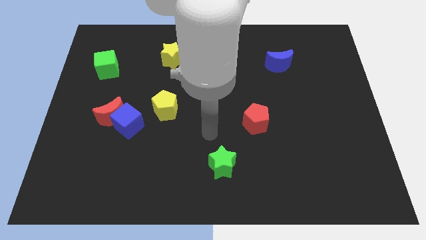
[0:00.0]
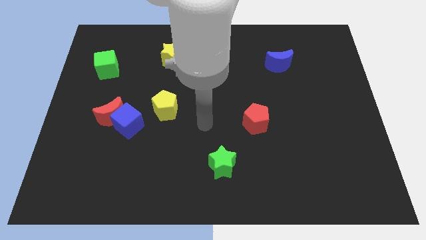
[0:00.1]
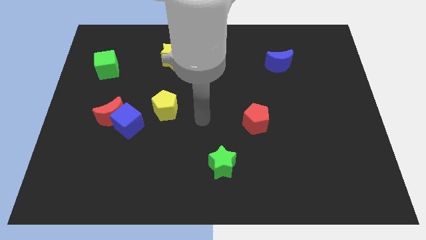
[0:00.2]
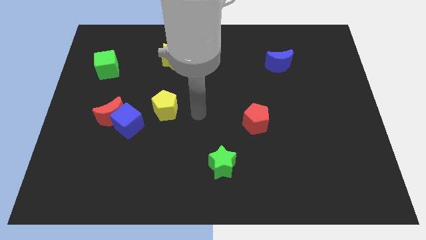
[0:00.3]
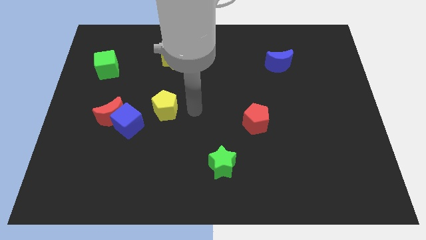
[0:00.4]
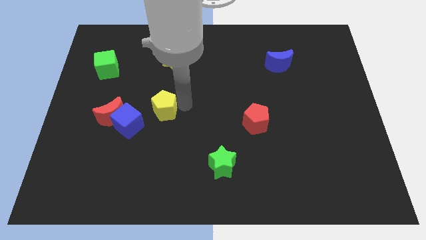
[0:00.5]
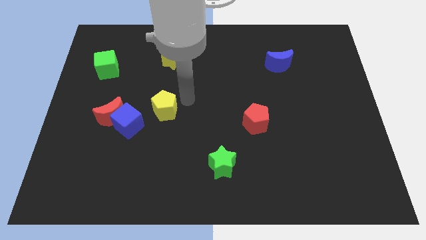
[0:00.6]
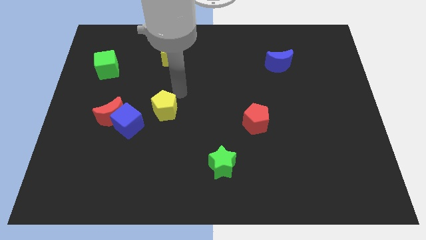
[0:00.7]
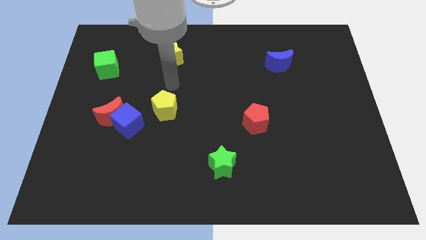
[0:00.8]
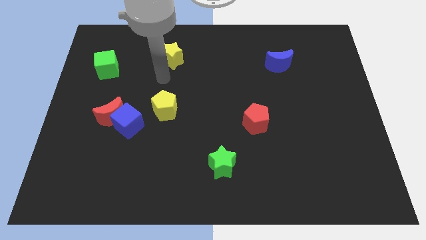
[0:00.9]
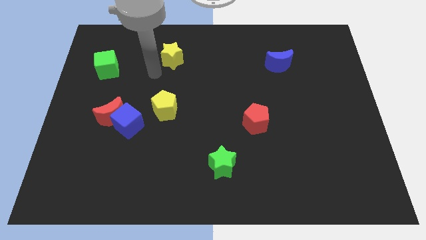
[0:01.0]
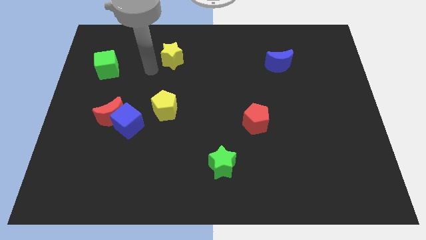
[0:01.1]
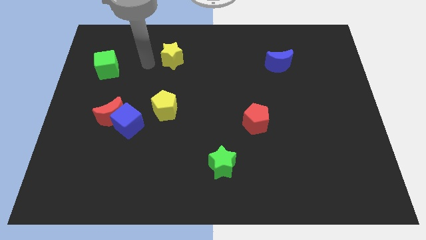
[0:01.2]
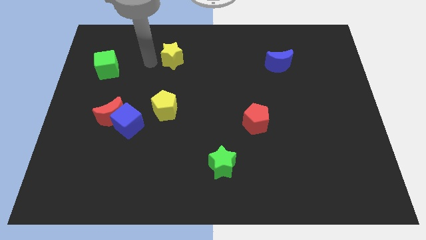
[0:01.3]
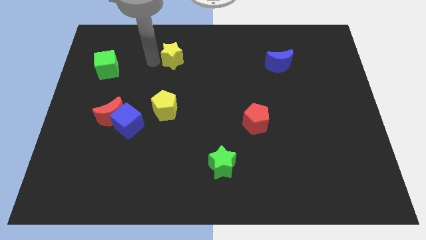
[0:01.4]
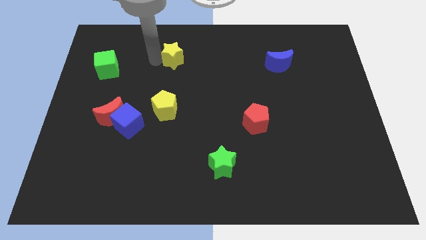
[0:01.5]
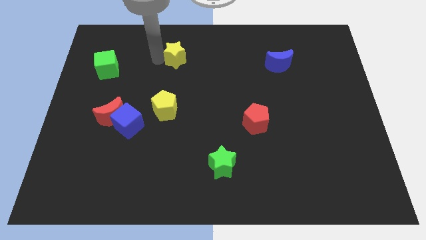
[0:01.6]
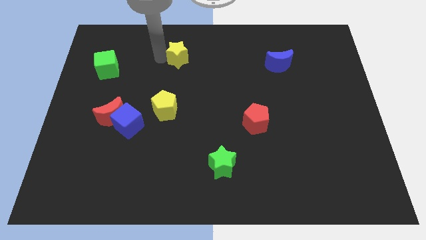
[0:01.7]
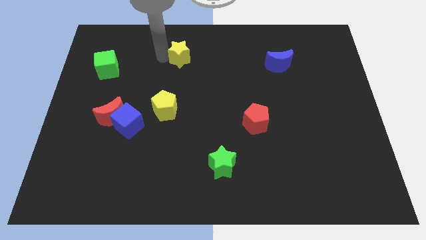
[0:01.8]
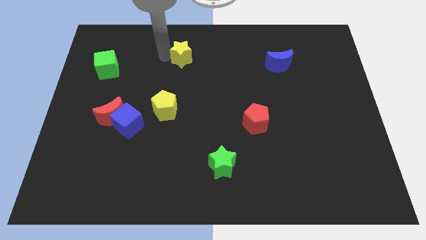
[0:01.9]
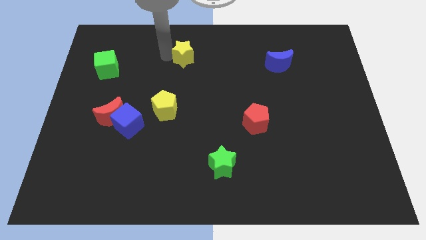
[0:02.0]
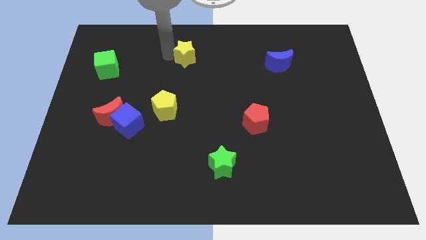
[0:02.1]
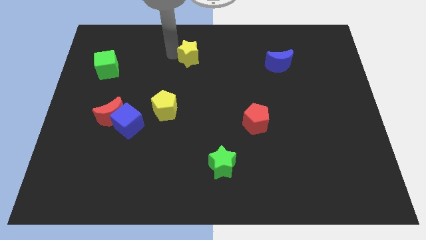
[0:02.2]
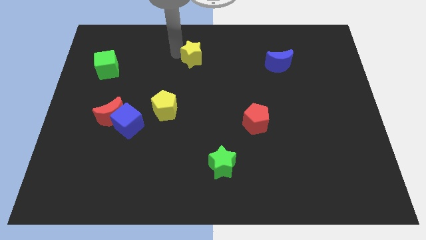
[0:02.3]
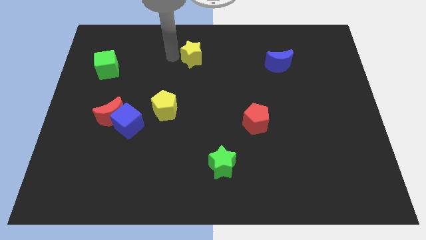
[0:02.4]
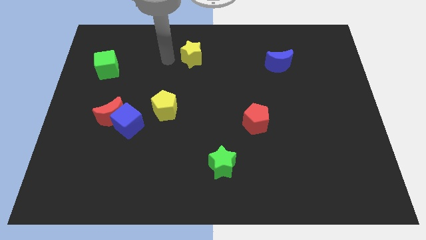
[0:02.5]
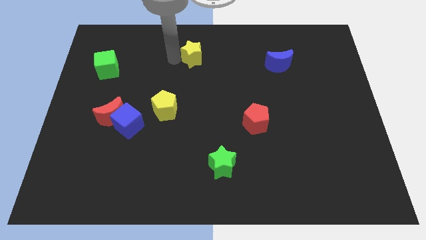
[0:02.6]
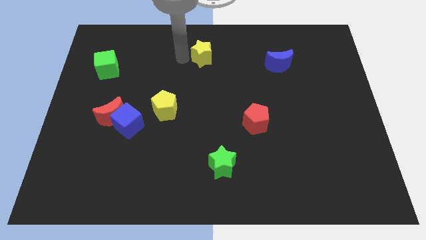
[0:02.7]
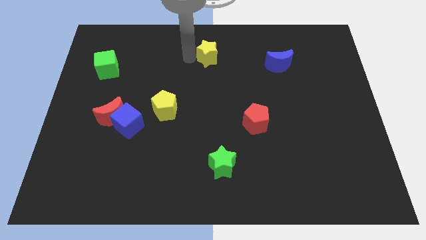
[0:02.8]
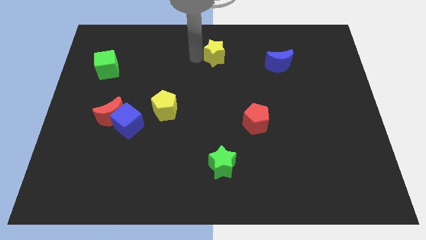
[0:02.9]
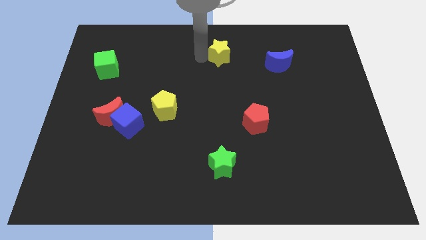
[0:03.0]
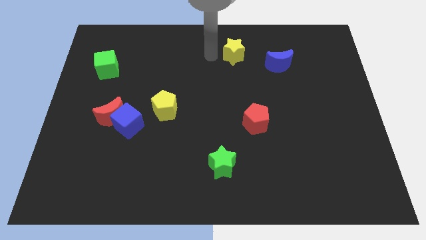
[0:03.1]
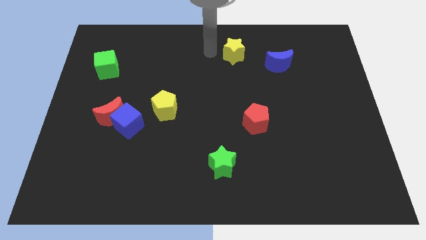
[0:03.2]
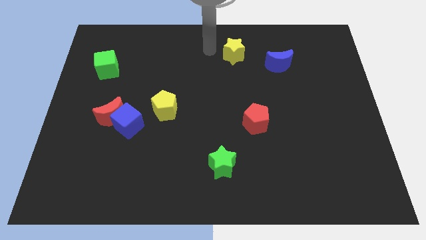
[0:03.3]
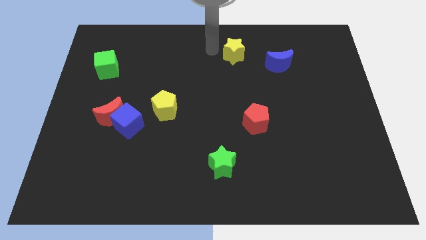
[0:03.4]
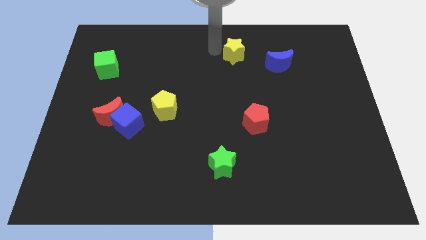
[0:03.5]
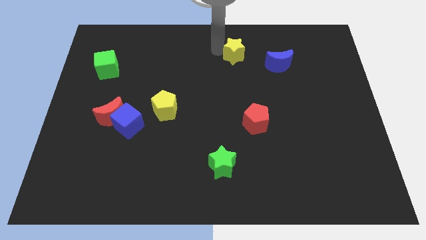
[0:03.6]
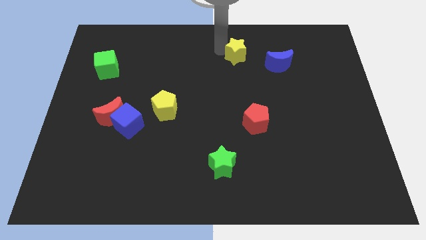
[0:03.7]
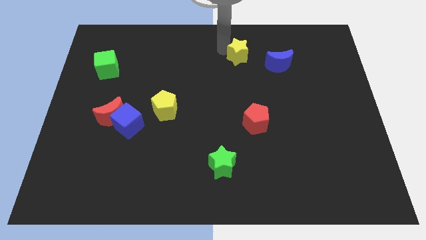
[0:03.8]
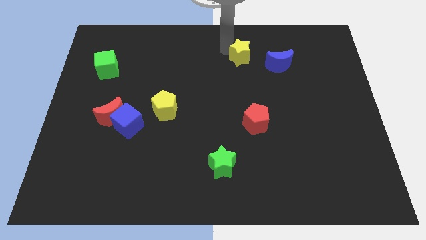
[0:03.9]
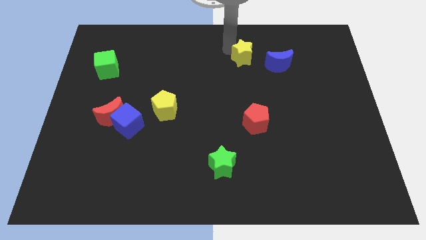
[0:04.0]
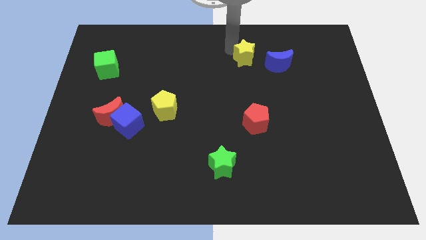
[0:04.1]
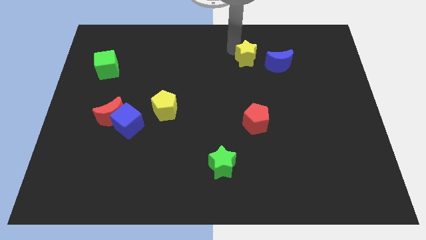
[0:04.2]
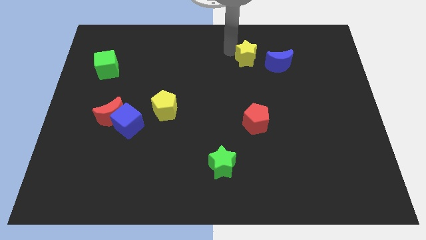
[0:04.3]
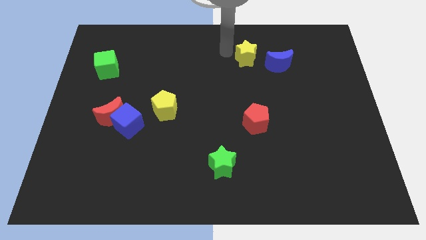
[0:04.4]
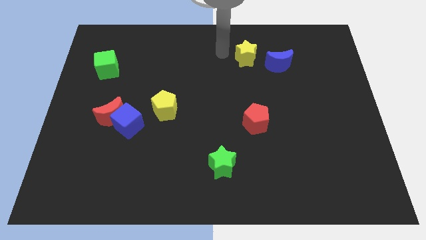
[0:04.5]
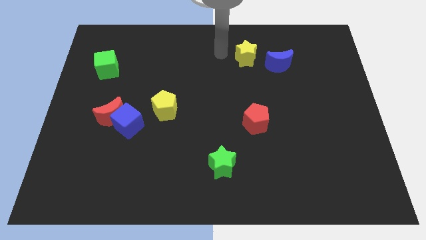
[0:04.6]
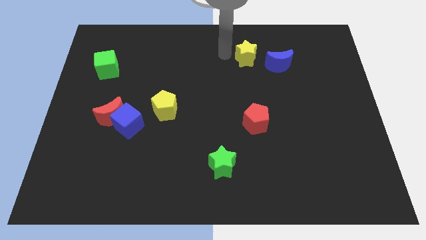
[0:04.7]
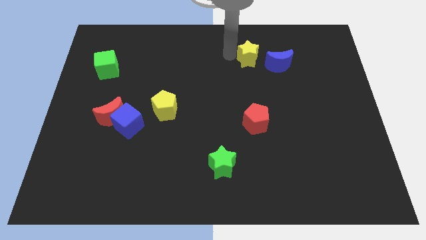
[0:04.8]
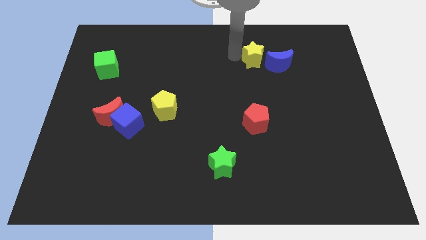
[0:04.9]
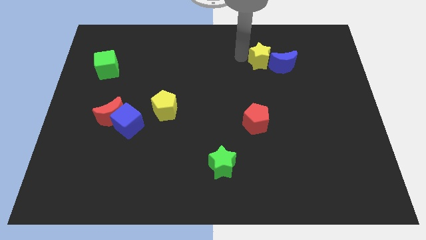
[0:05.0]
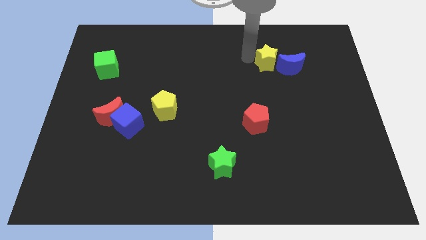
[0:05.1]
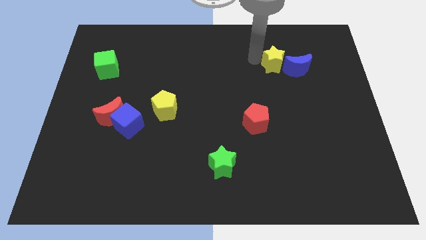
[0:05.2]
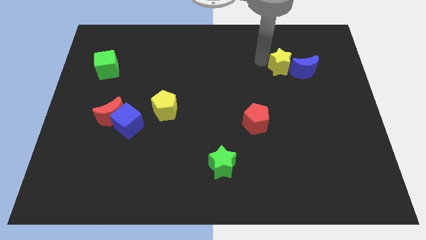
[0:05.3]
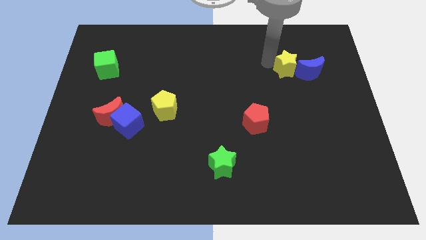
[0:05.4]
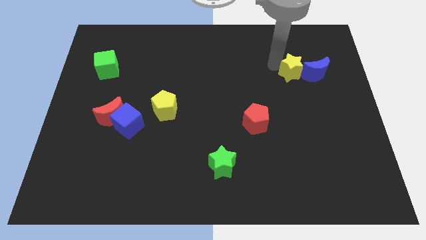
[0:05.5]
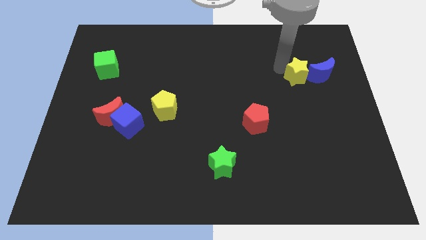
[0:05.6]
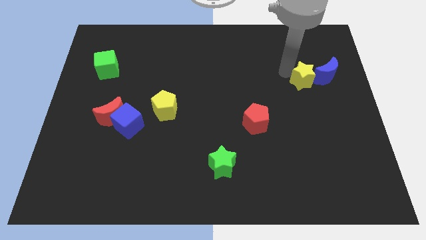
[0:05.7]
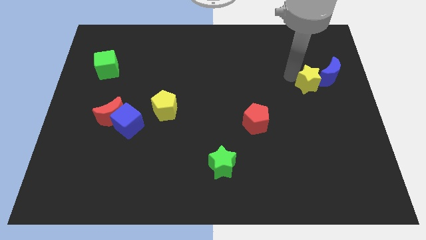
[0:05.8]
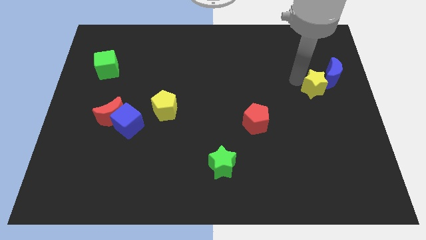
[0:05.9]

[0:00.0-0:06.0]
slide the yellow star to the blue moon

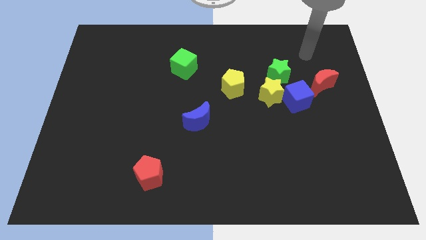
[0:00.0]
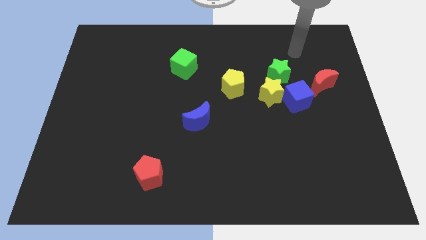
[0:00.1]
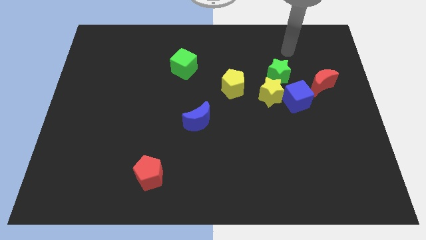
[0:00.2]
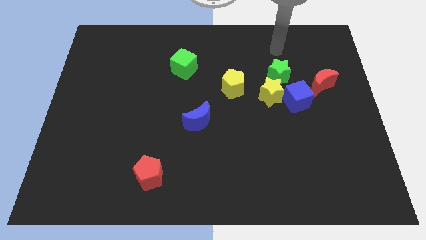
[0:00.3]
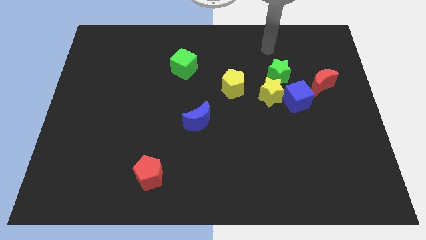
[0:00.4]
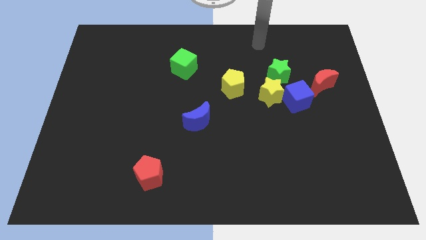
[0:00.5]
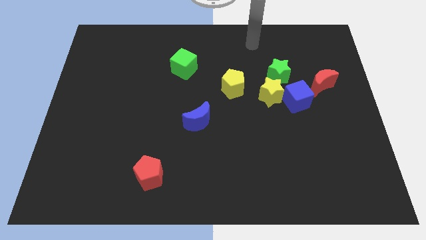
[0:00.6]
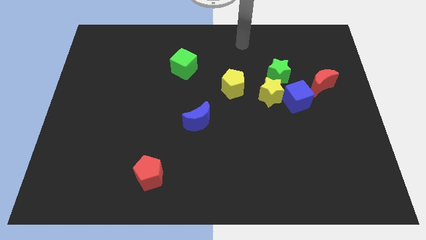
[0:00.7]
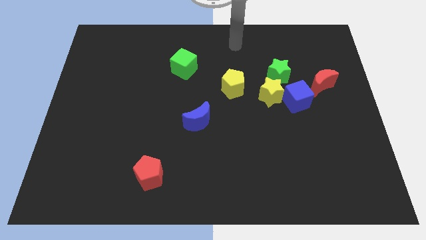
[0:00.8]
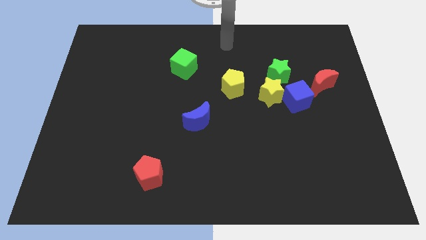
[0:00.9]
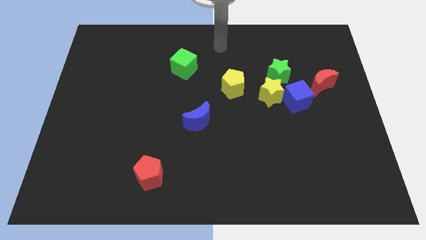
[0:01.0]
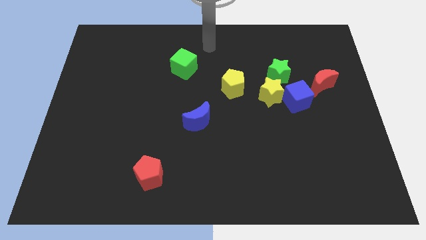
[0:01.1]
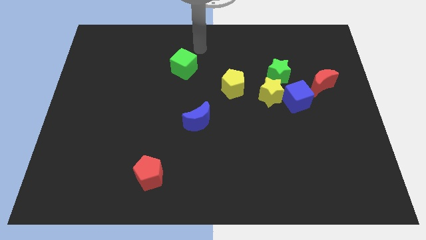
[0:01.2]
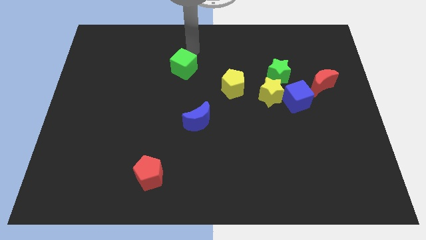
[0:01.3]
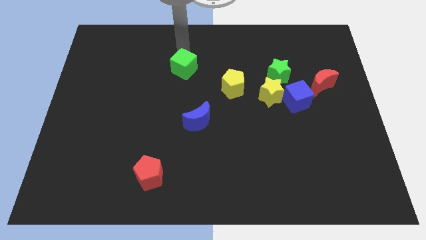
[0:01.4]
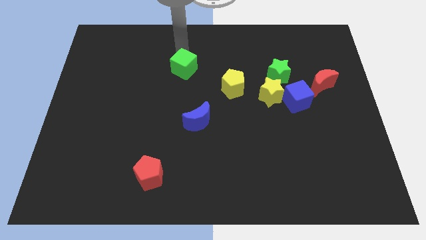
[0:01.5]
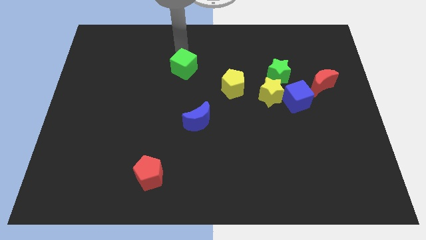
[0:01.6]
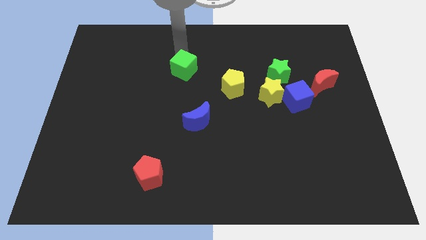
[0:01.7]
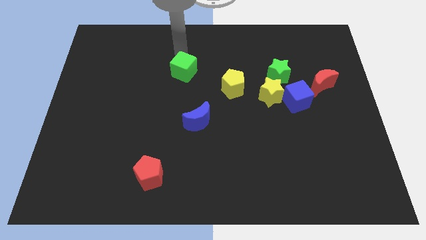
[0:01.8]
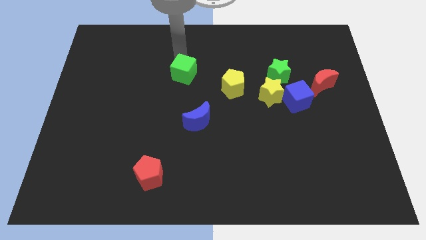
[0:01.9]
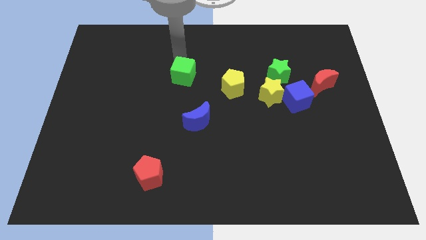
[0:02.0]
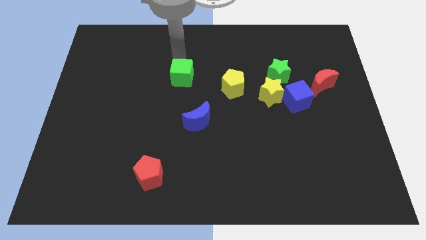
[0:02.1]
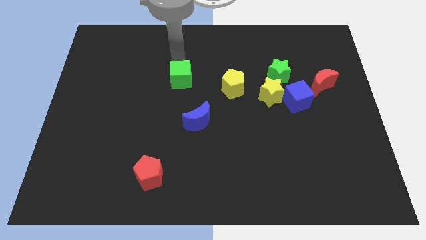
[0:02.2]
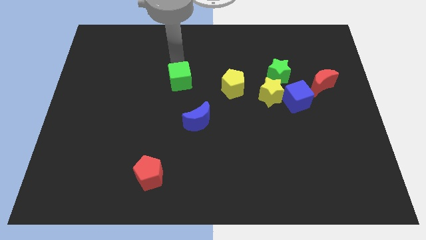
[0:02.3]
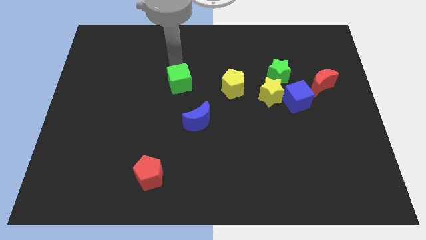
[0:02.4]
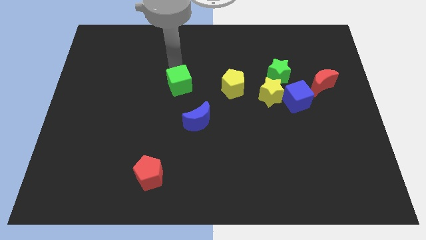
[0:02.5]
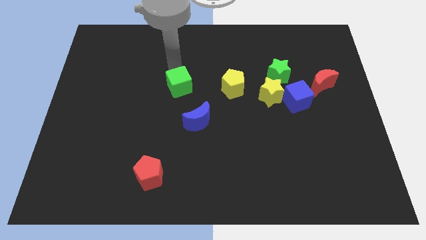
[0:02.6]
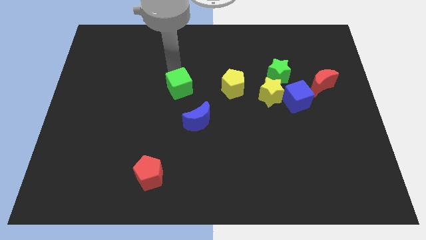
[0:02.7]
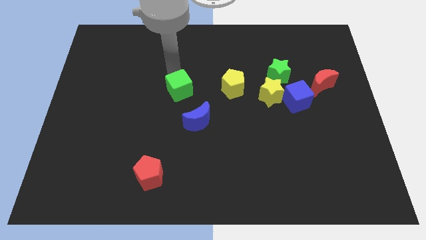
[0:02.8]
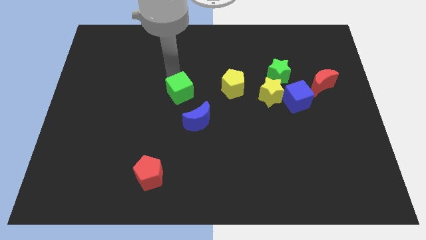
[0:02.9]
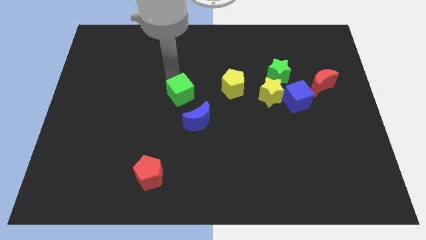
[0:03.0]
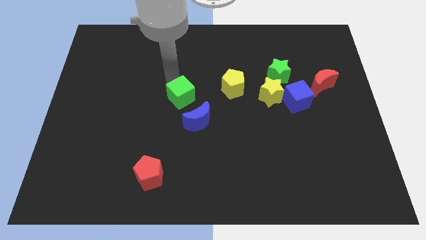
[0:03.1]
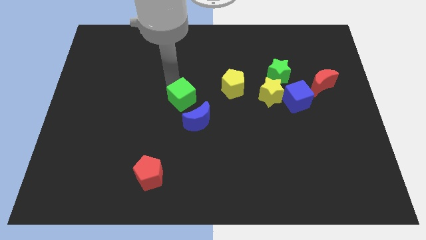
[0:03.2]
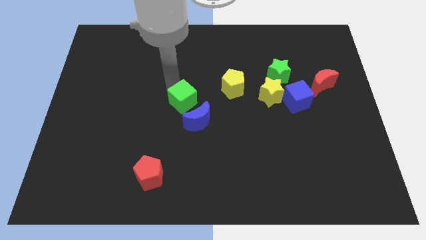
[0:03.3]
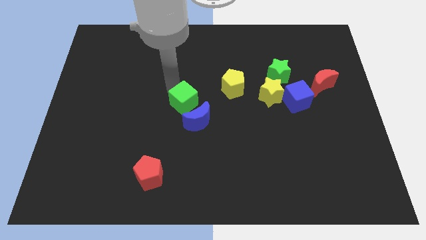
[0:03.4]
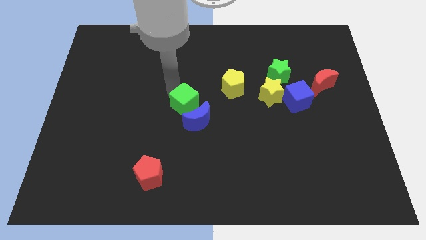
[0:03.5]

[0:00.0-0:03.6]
move the green cube to the blue moon
